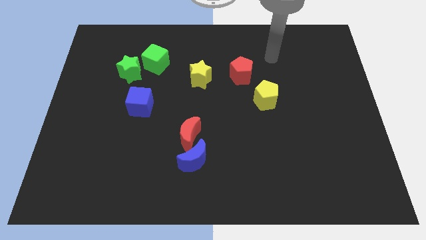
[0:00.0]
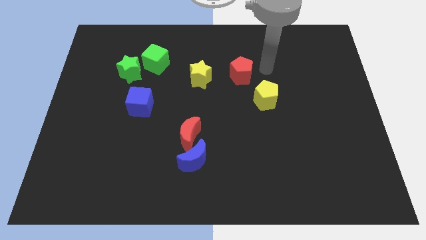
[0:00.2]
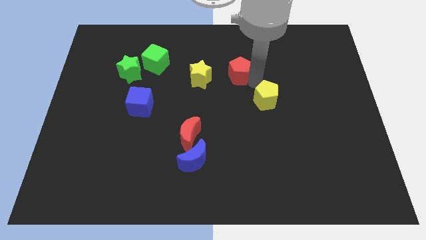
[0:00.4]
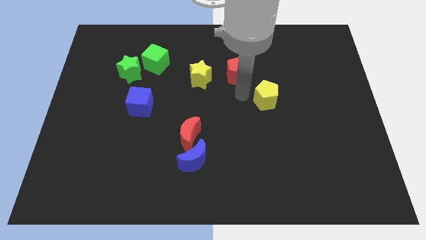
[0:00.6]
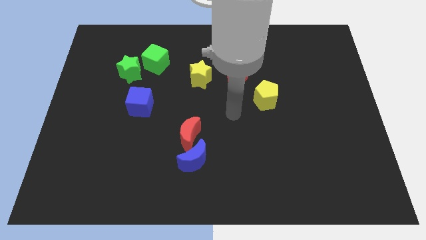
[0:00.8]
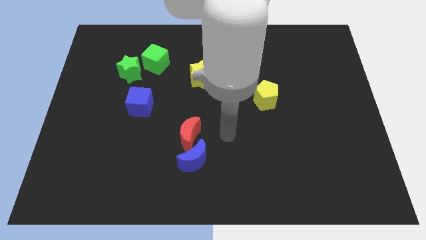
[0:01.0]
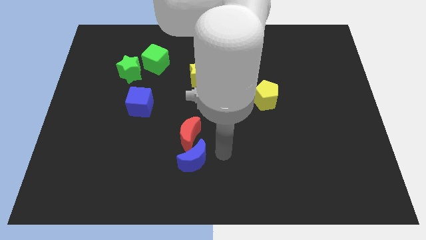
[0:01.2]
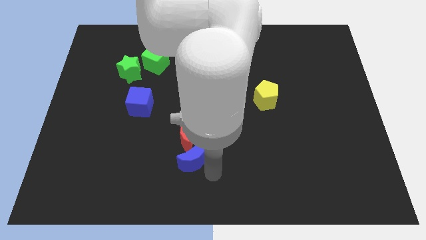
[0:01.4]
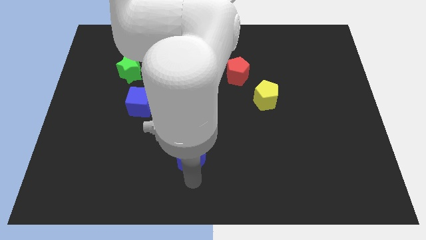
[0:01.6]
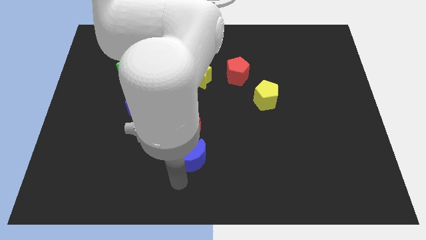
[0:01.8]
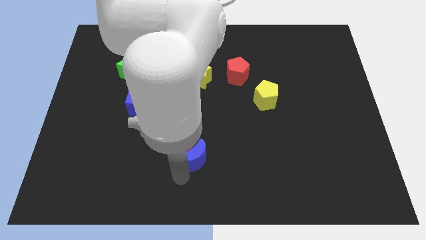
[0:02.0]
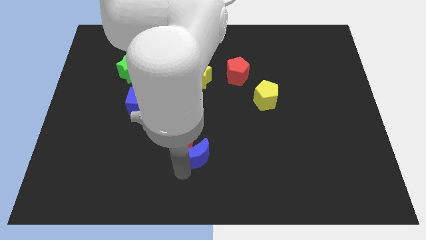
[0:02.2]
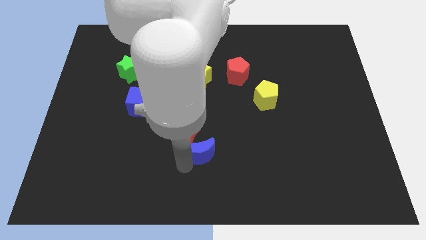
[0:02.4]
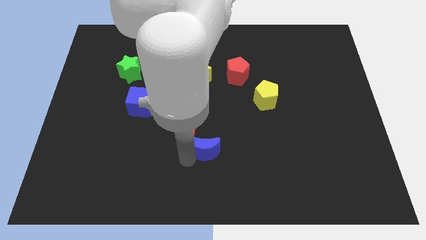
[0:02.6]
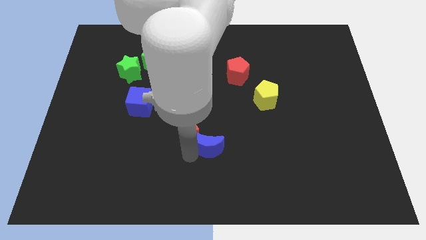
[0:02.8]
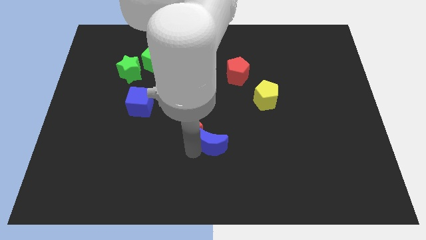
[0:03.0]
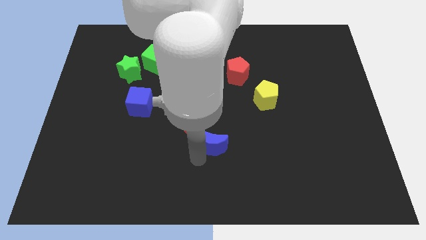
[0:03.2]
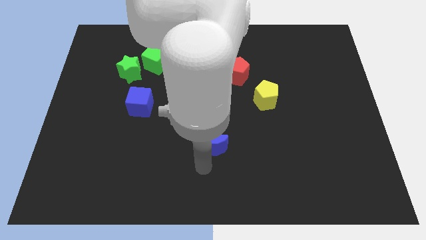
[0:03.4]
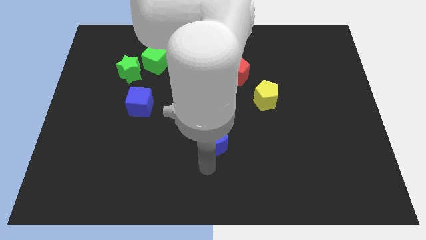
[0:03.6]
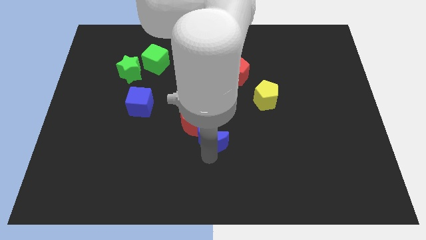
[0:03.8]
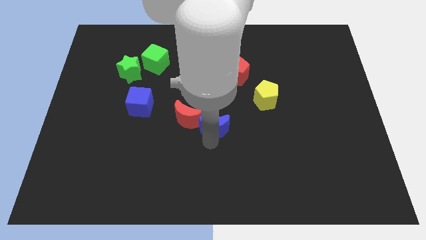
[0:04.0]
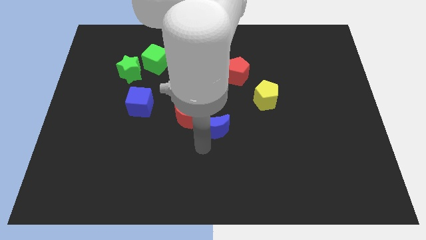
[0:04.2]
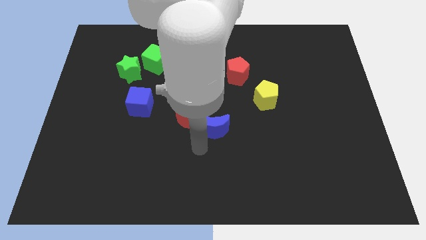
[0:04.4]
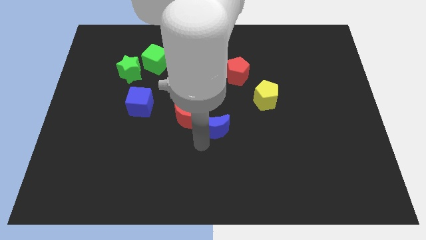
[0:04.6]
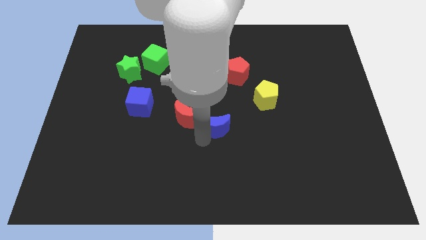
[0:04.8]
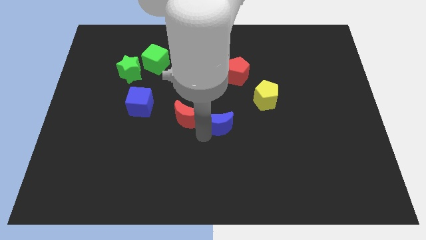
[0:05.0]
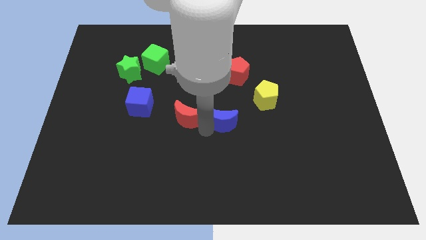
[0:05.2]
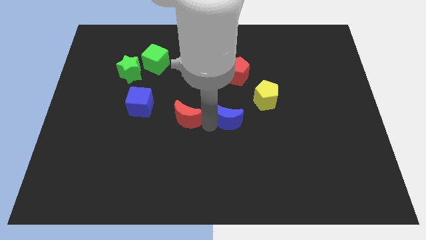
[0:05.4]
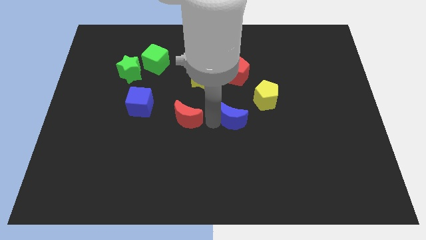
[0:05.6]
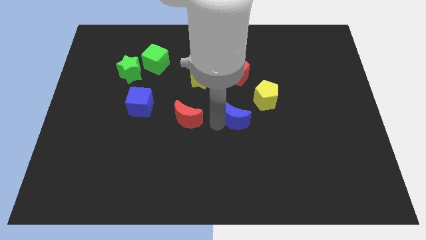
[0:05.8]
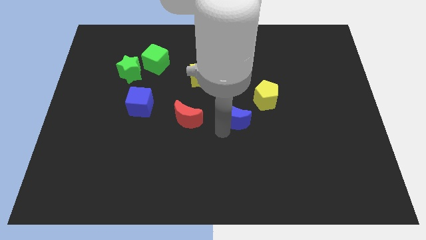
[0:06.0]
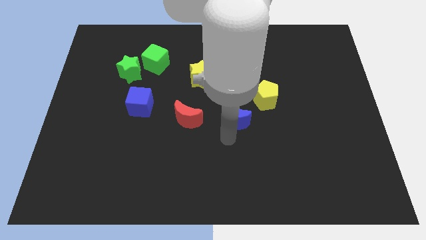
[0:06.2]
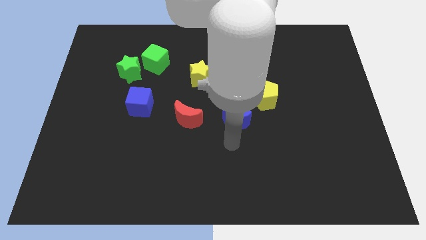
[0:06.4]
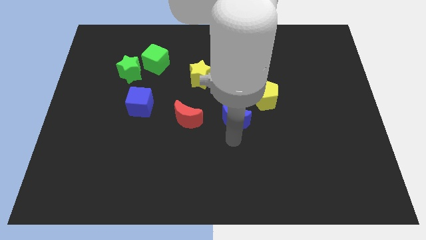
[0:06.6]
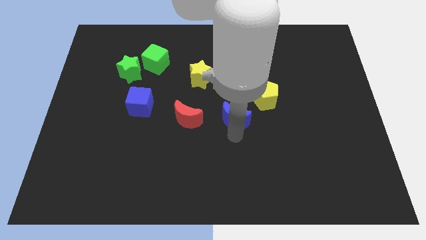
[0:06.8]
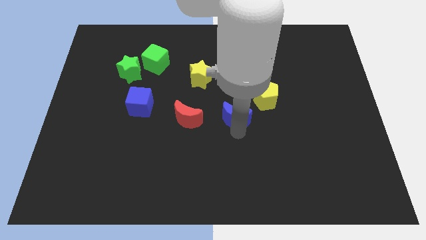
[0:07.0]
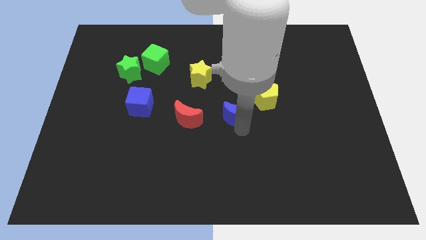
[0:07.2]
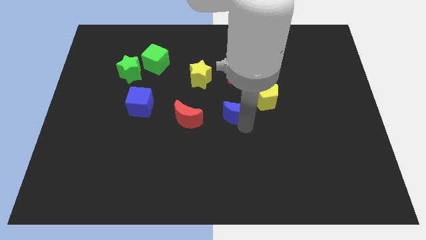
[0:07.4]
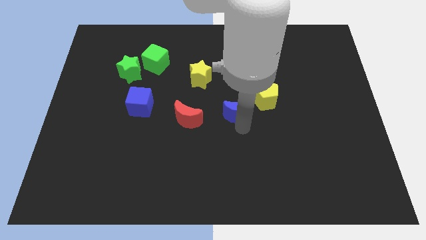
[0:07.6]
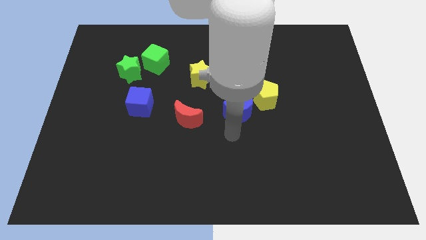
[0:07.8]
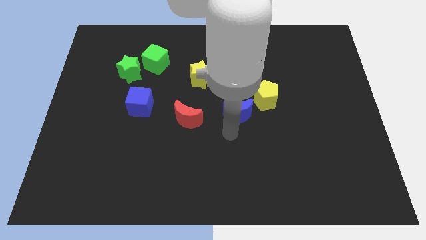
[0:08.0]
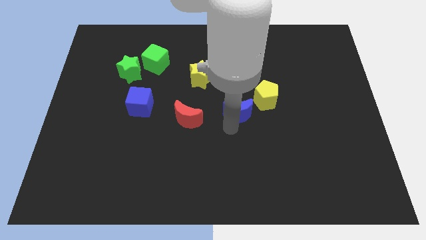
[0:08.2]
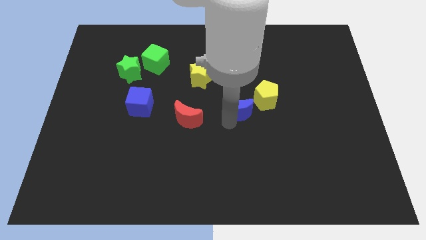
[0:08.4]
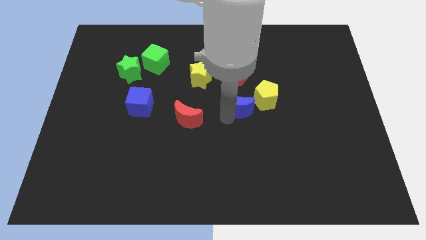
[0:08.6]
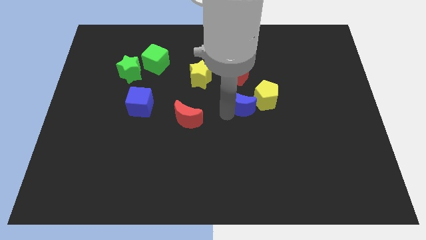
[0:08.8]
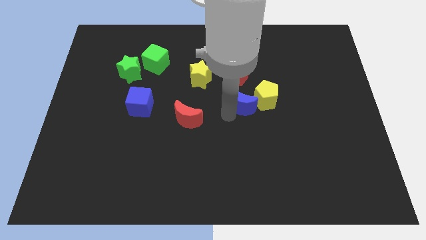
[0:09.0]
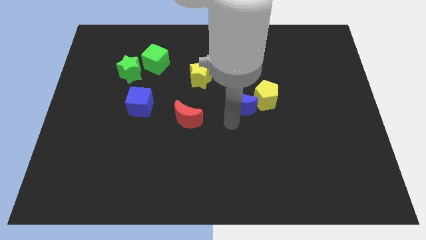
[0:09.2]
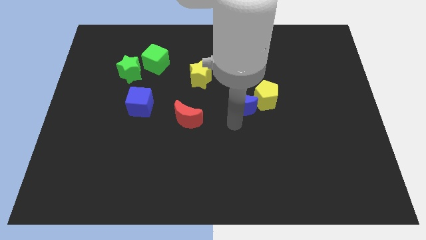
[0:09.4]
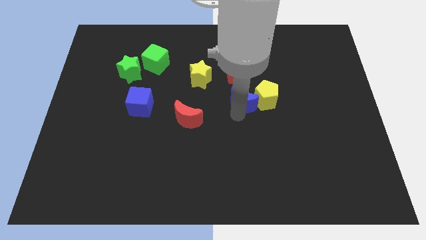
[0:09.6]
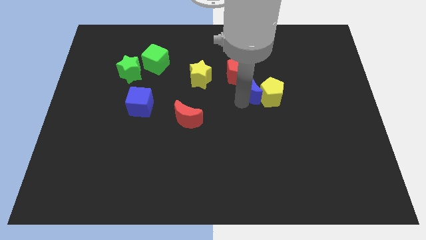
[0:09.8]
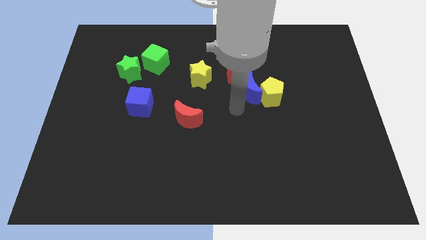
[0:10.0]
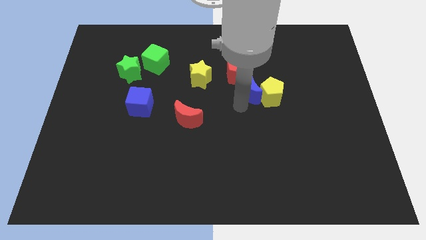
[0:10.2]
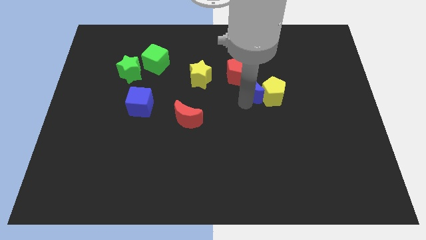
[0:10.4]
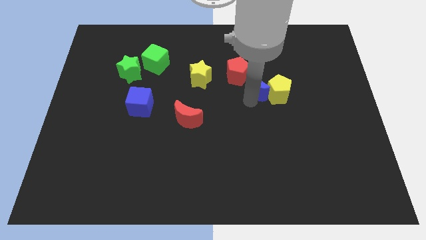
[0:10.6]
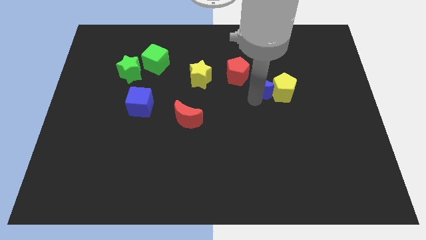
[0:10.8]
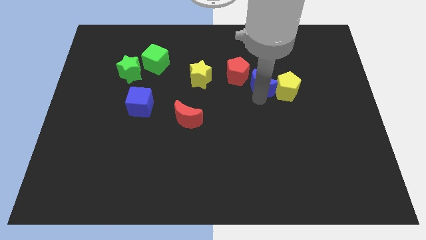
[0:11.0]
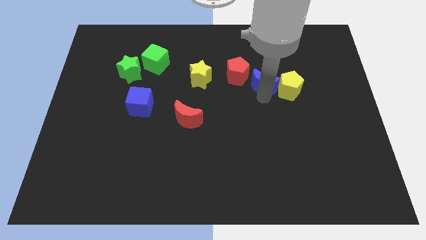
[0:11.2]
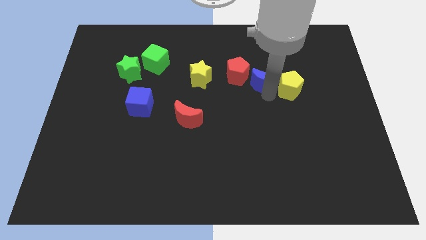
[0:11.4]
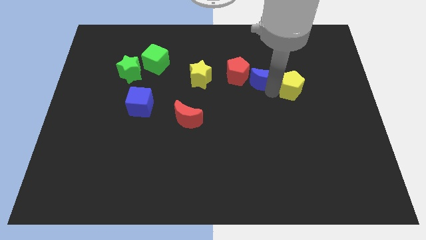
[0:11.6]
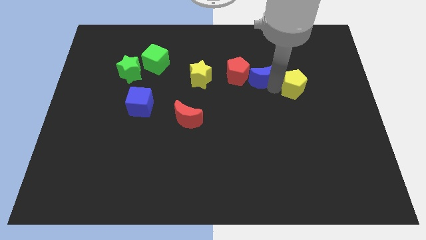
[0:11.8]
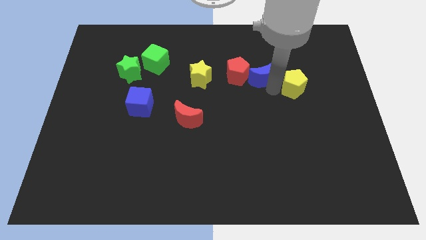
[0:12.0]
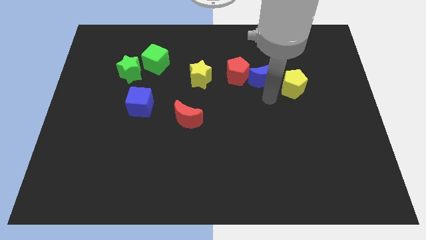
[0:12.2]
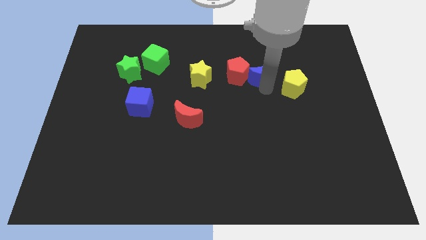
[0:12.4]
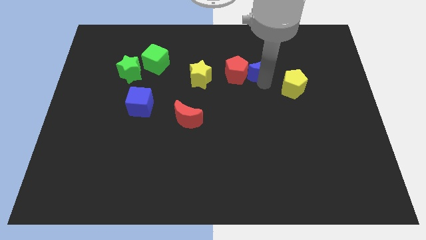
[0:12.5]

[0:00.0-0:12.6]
slide the blue moon to the top right of the red pentagon
